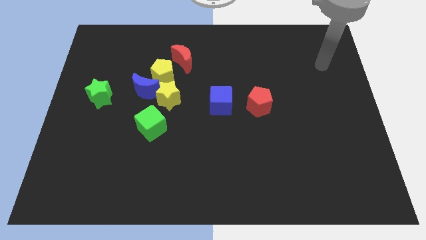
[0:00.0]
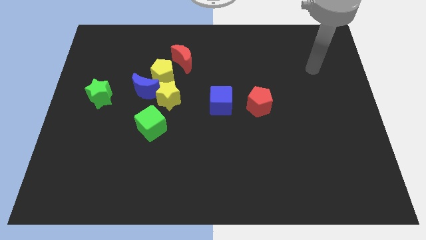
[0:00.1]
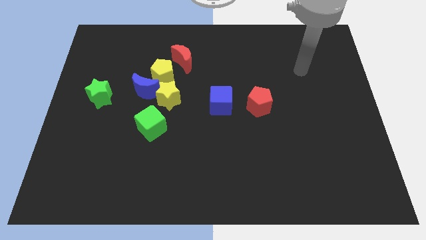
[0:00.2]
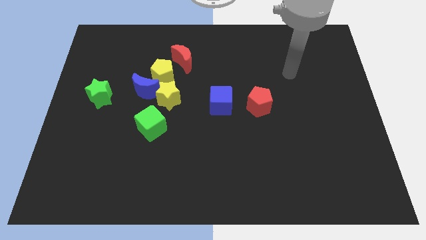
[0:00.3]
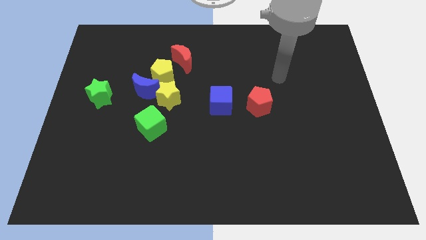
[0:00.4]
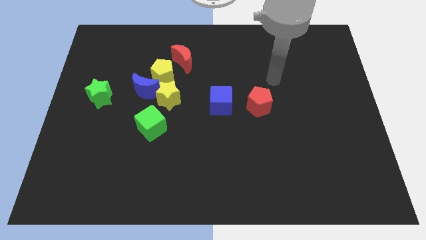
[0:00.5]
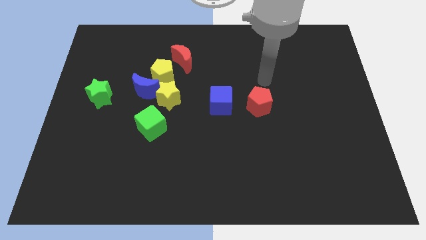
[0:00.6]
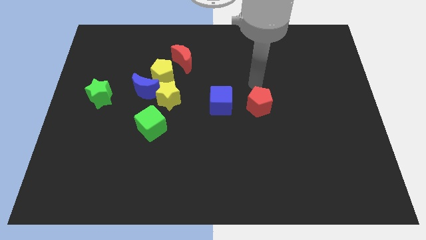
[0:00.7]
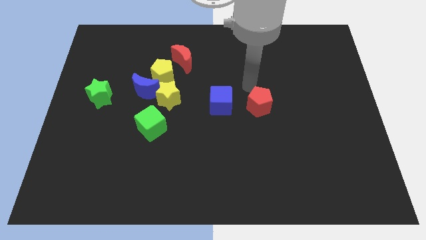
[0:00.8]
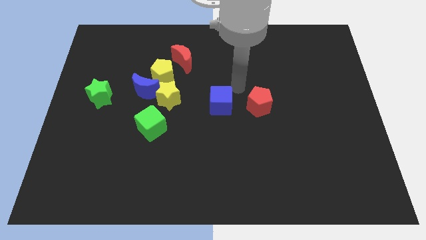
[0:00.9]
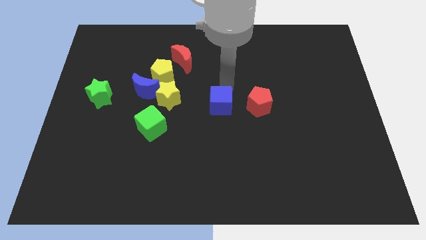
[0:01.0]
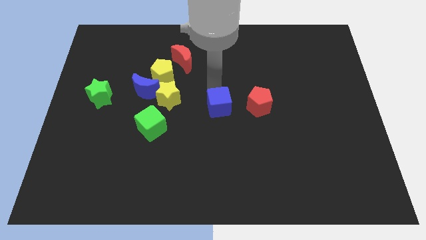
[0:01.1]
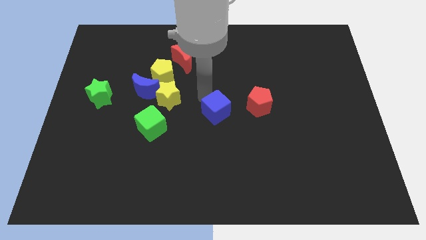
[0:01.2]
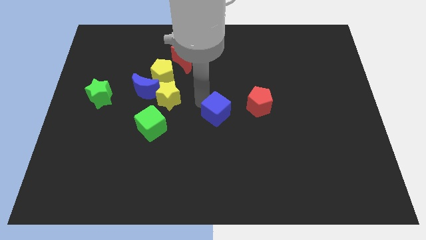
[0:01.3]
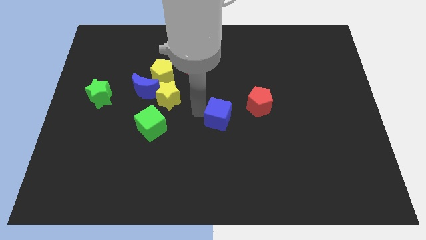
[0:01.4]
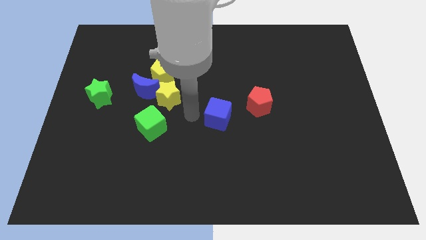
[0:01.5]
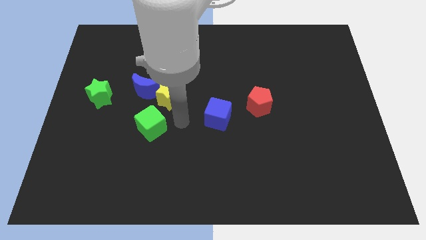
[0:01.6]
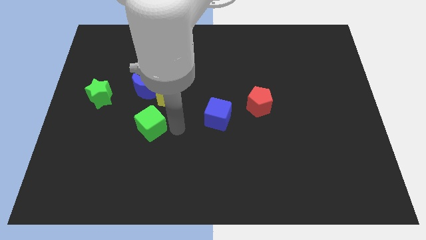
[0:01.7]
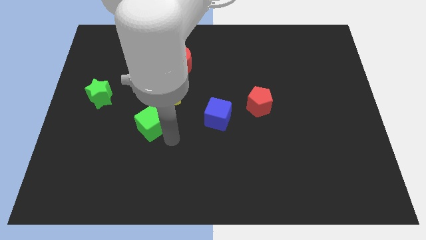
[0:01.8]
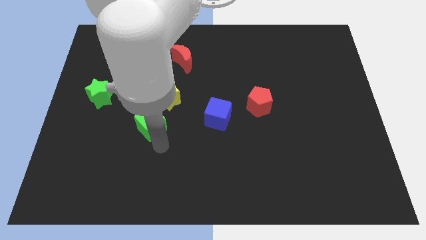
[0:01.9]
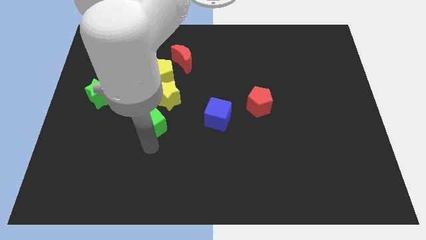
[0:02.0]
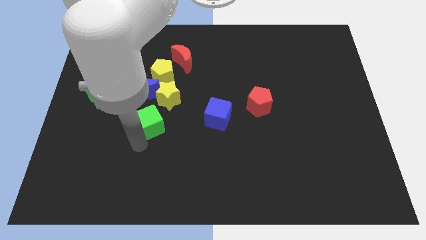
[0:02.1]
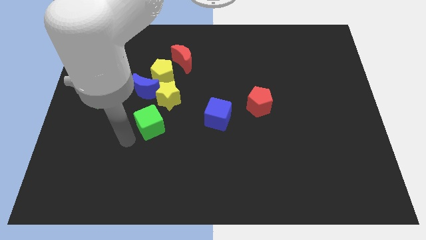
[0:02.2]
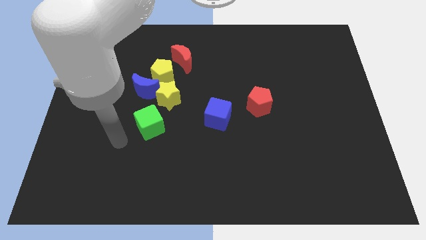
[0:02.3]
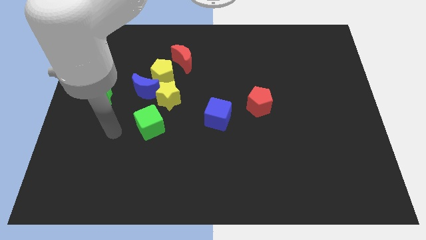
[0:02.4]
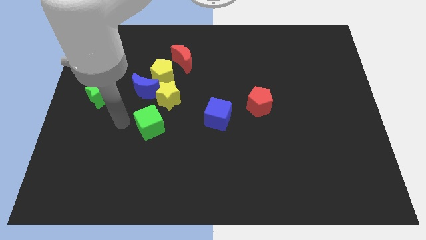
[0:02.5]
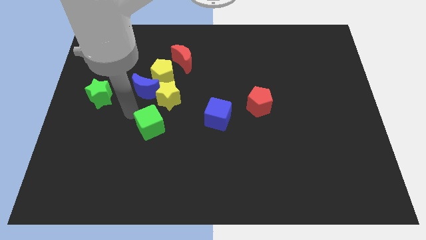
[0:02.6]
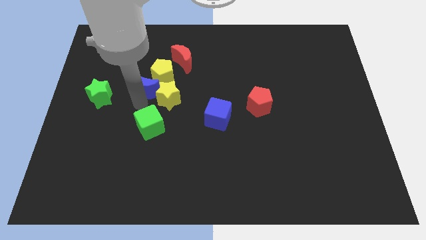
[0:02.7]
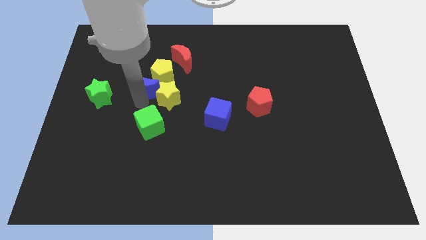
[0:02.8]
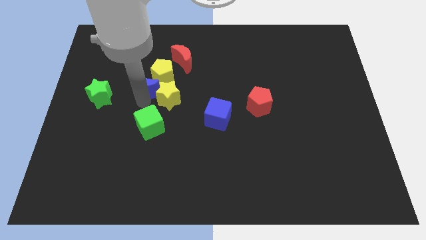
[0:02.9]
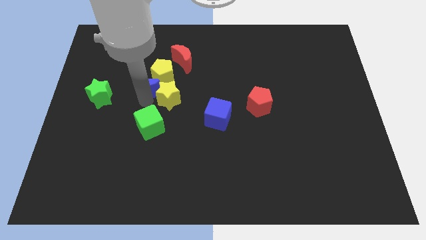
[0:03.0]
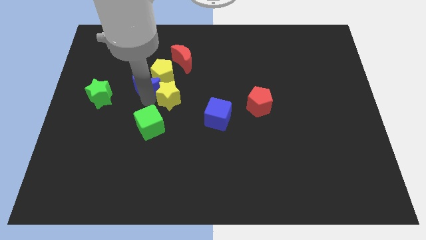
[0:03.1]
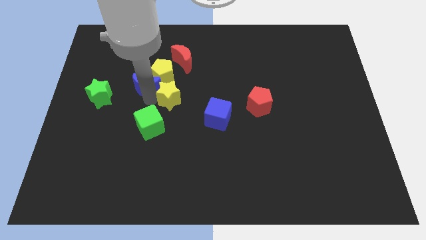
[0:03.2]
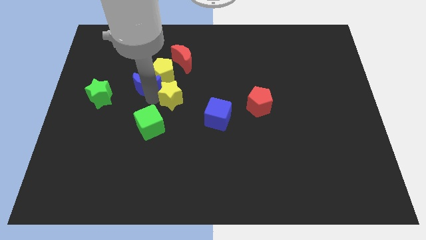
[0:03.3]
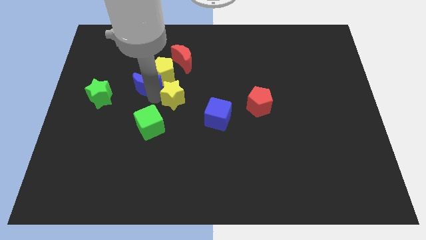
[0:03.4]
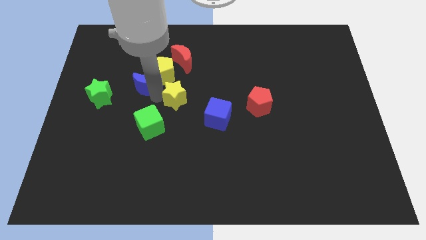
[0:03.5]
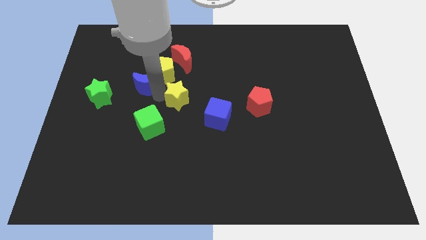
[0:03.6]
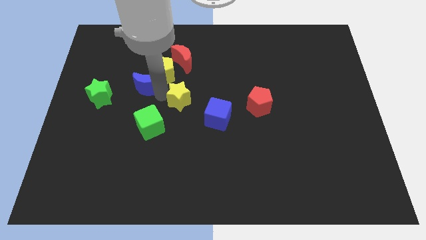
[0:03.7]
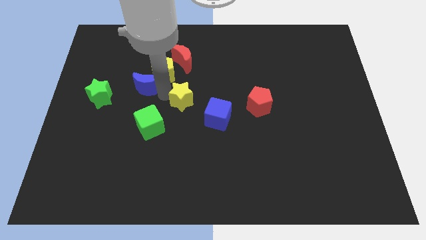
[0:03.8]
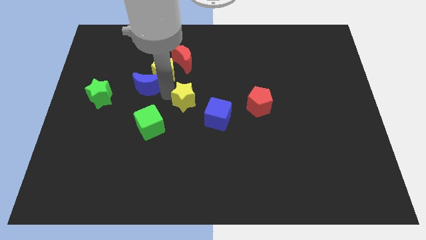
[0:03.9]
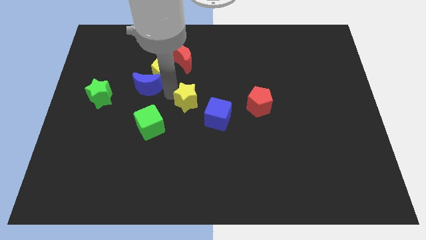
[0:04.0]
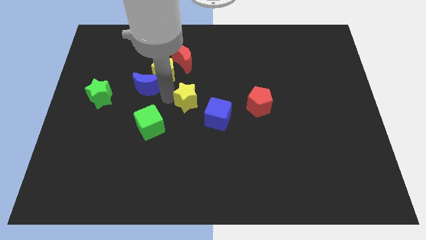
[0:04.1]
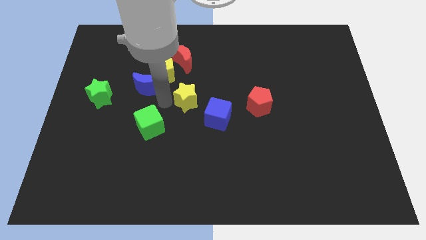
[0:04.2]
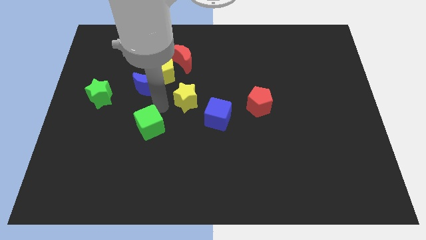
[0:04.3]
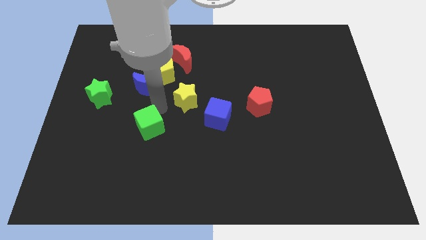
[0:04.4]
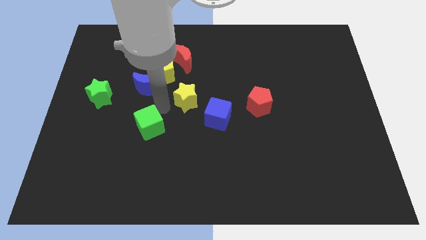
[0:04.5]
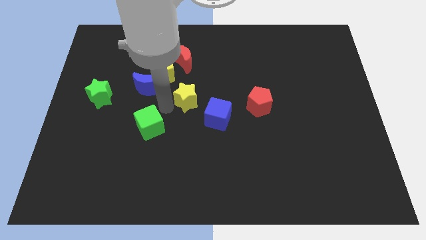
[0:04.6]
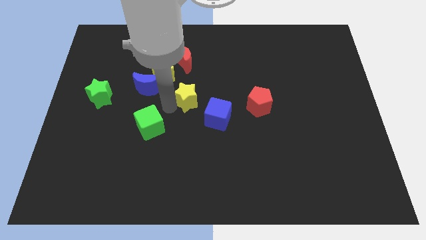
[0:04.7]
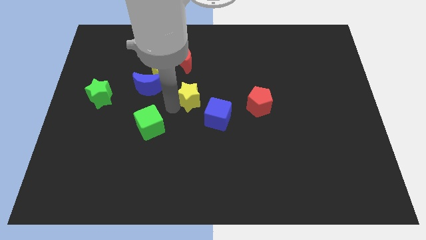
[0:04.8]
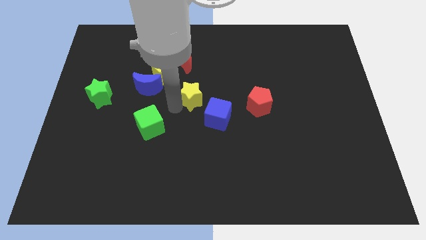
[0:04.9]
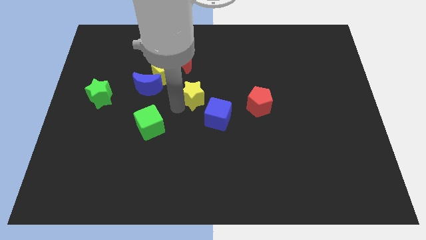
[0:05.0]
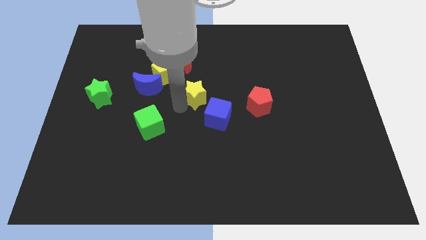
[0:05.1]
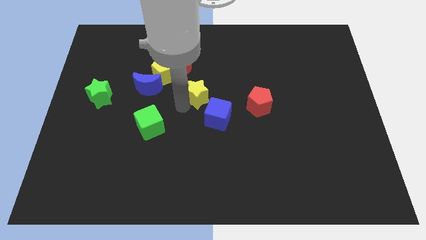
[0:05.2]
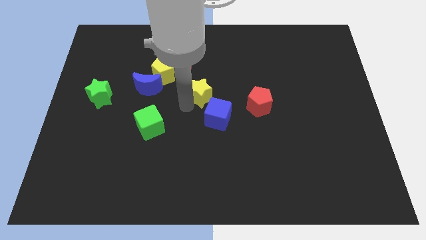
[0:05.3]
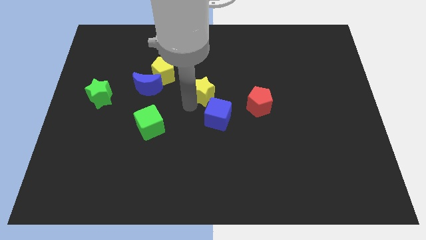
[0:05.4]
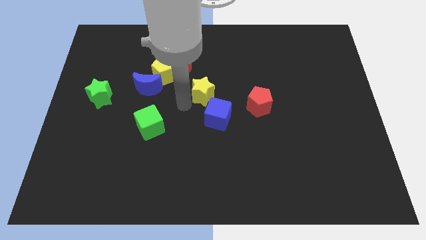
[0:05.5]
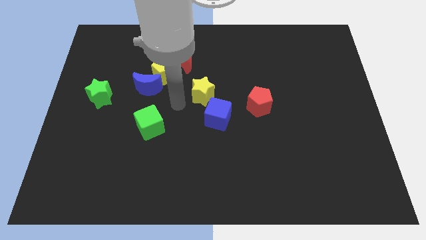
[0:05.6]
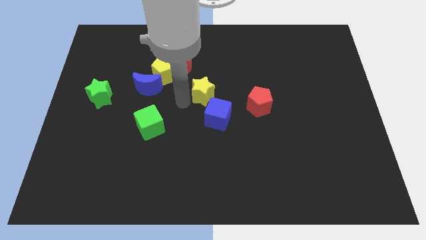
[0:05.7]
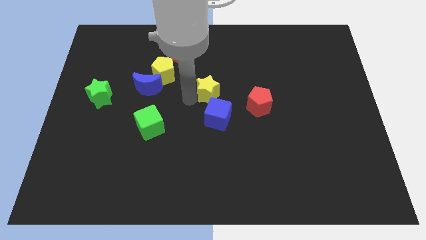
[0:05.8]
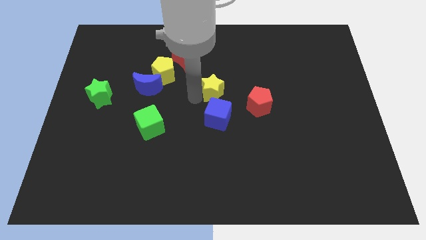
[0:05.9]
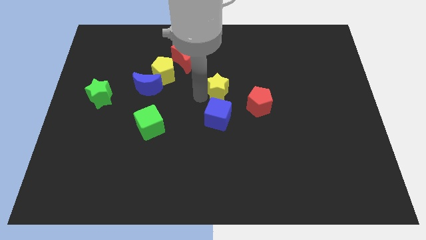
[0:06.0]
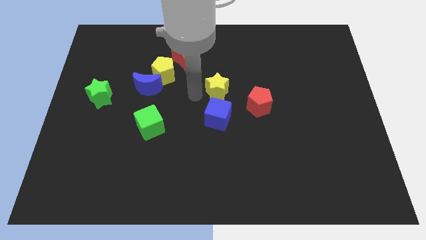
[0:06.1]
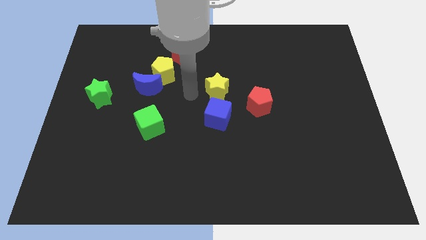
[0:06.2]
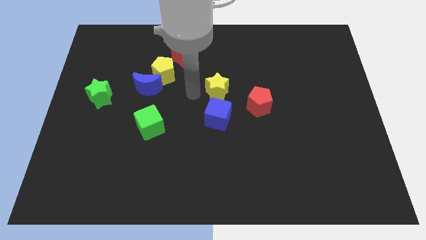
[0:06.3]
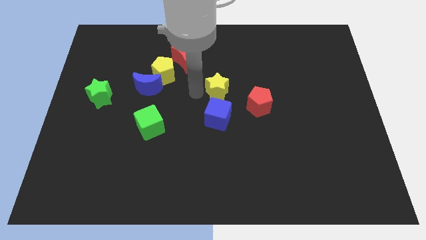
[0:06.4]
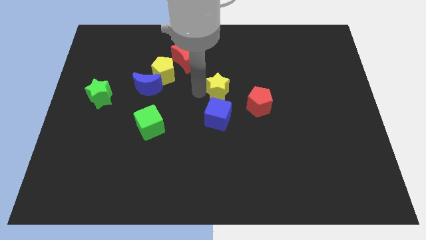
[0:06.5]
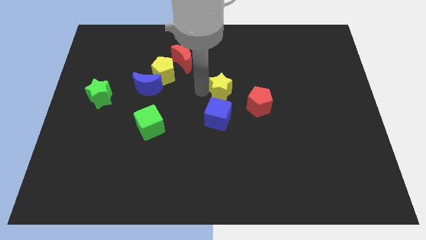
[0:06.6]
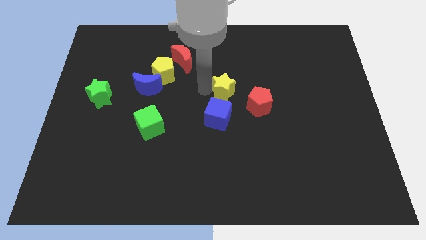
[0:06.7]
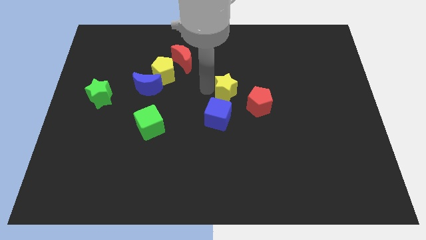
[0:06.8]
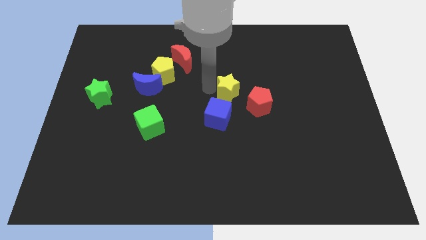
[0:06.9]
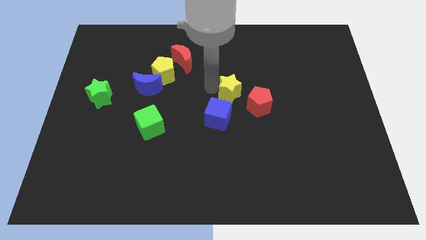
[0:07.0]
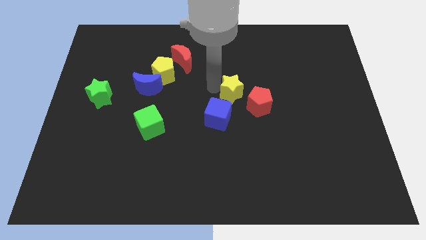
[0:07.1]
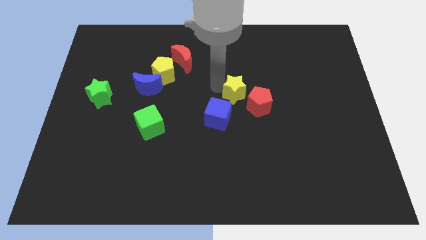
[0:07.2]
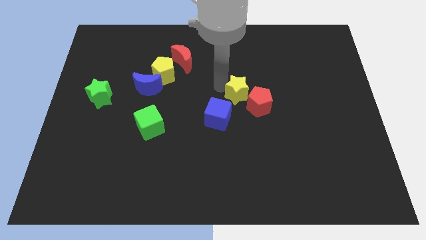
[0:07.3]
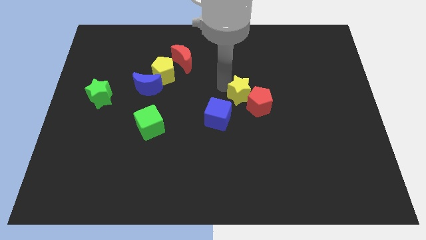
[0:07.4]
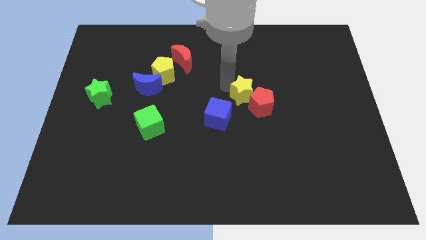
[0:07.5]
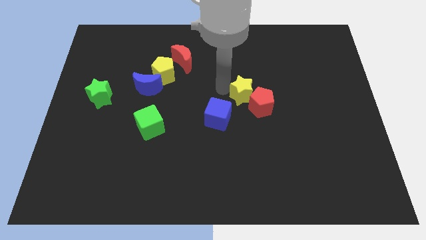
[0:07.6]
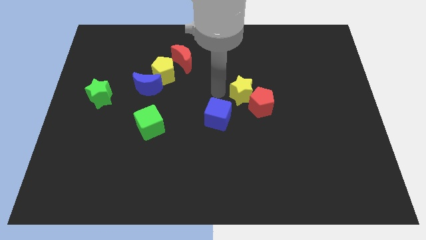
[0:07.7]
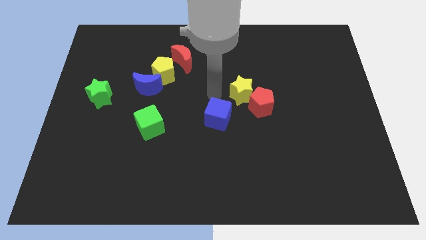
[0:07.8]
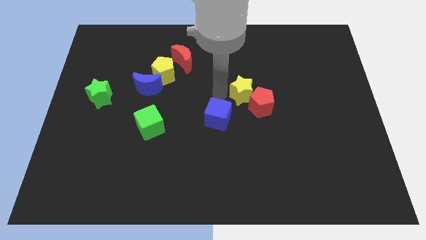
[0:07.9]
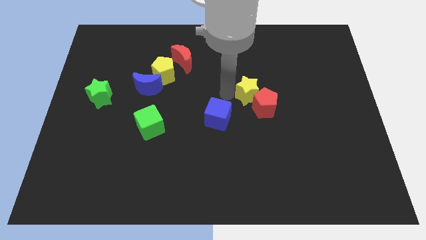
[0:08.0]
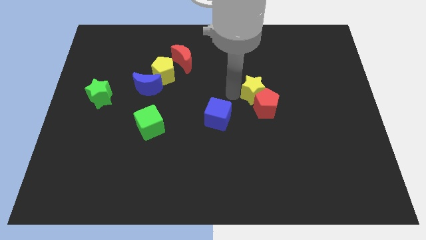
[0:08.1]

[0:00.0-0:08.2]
push the yellow star right

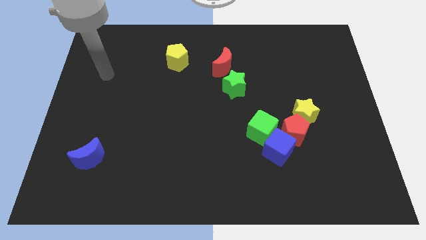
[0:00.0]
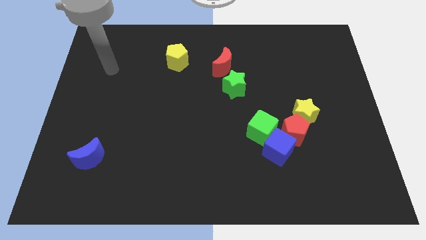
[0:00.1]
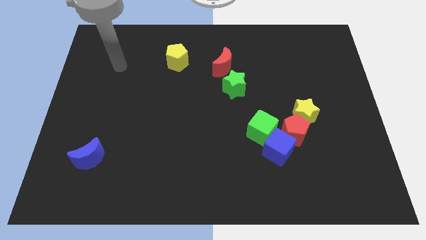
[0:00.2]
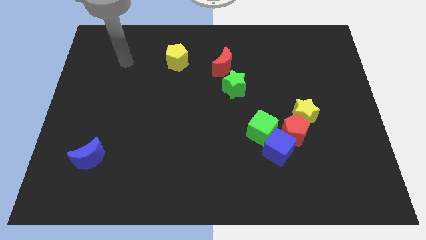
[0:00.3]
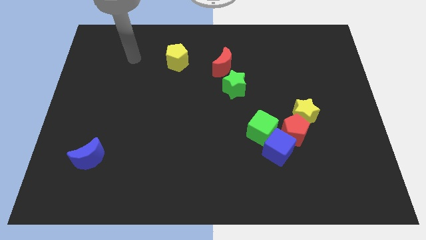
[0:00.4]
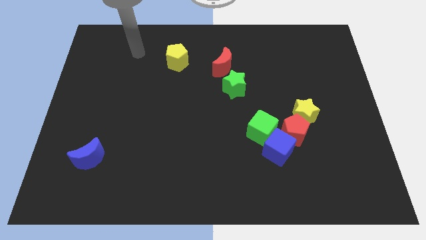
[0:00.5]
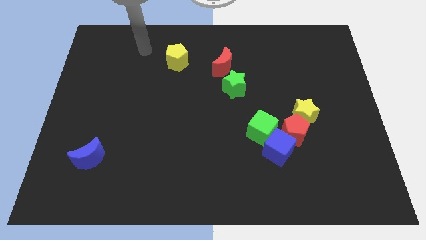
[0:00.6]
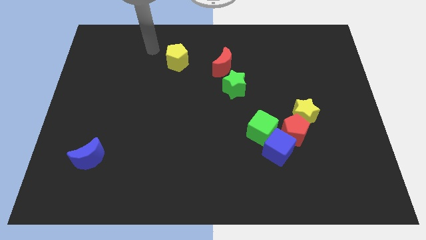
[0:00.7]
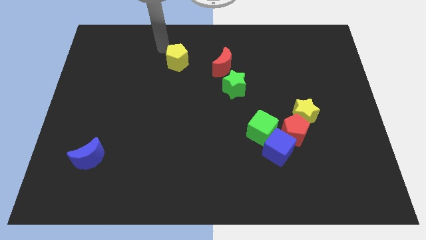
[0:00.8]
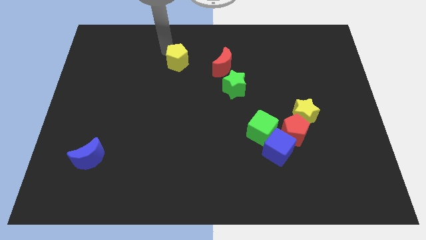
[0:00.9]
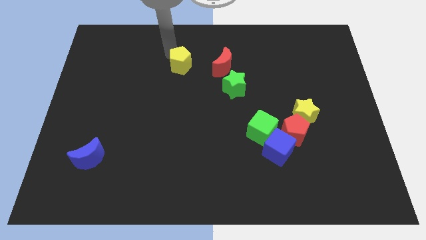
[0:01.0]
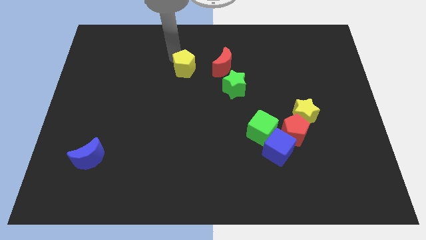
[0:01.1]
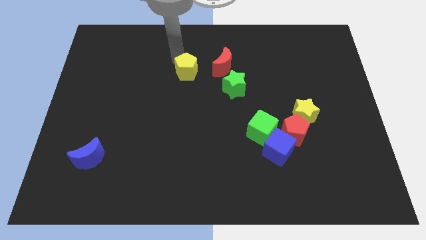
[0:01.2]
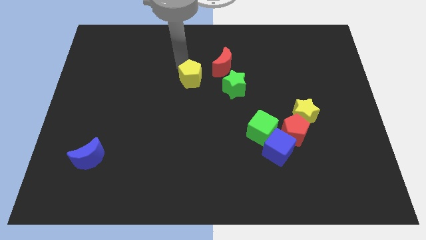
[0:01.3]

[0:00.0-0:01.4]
slide the yellow pentagon down and to the right diagonally slightly
